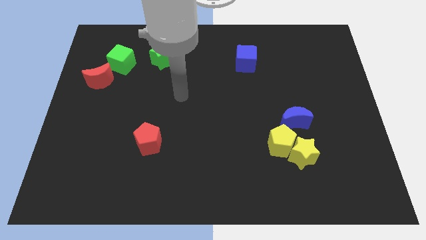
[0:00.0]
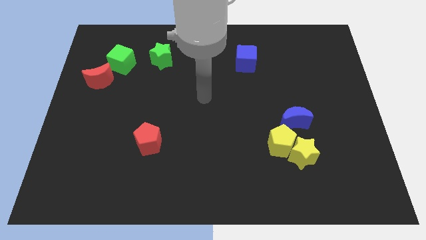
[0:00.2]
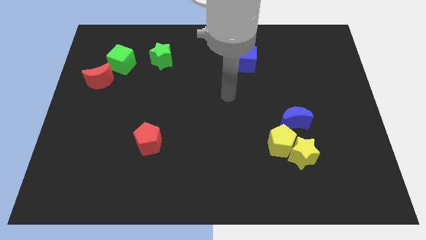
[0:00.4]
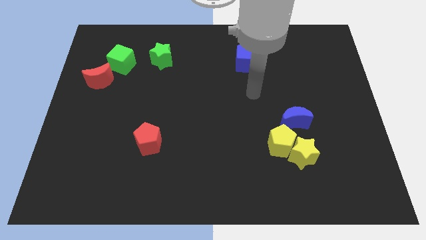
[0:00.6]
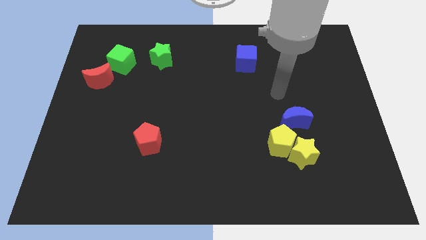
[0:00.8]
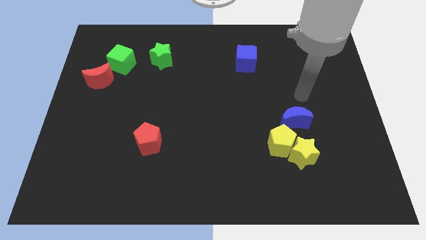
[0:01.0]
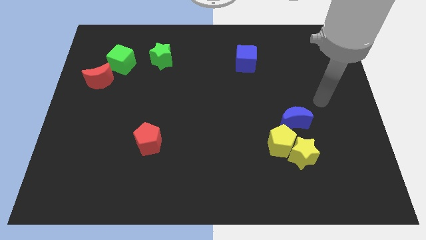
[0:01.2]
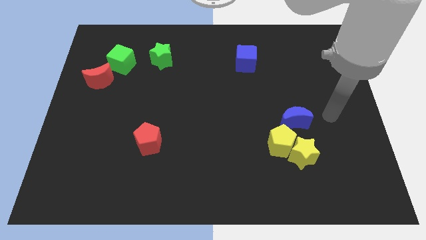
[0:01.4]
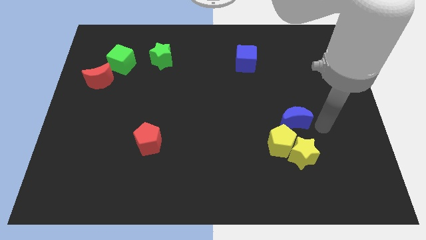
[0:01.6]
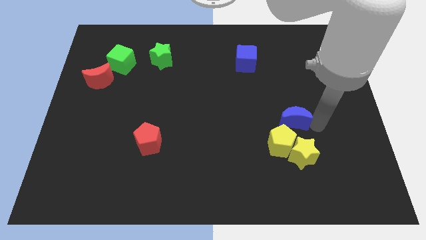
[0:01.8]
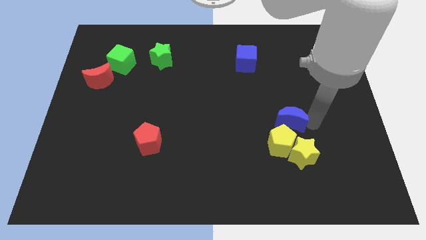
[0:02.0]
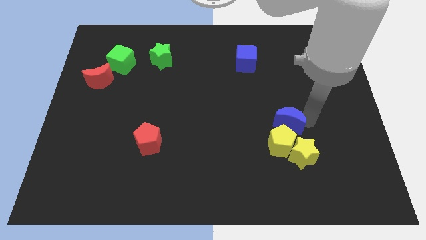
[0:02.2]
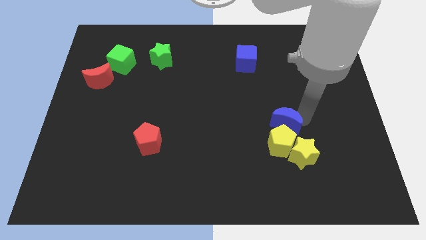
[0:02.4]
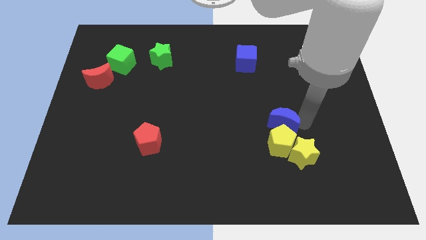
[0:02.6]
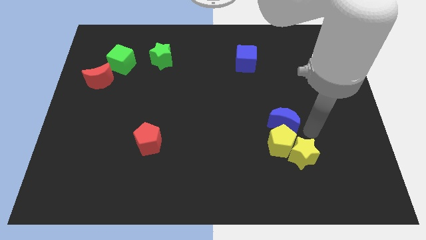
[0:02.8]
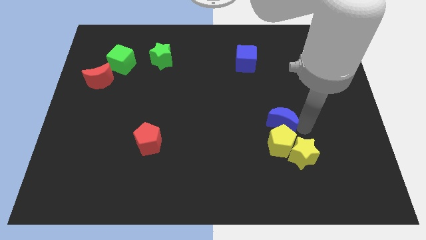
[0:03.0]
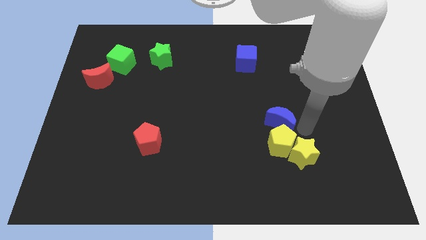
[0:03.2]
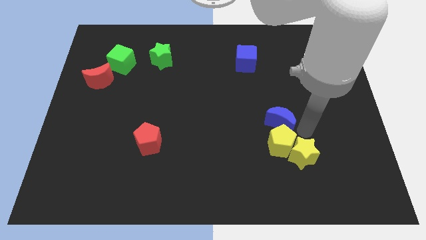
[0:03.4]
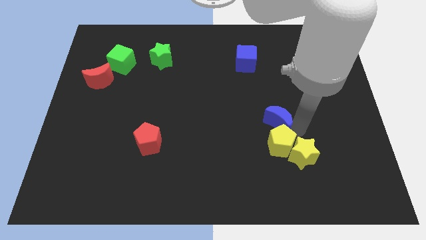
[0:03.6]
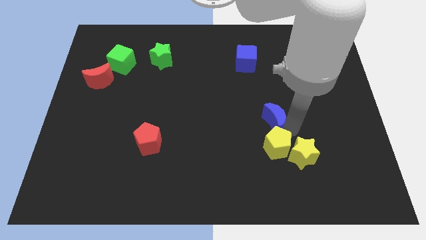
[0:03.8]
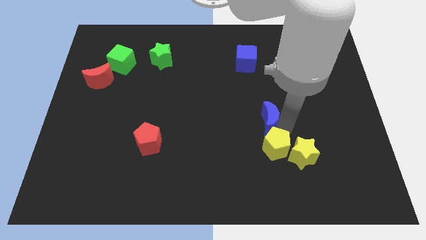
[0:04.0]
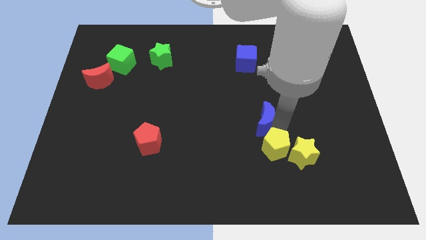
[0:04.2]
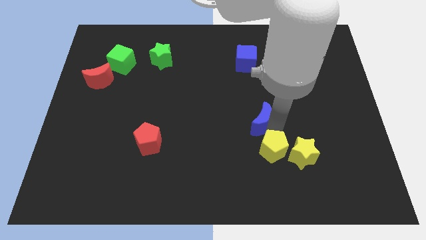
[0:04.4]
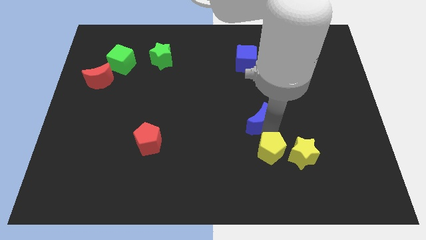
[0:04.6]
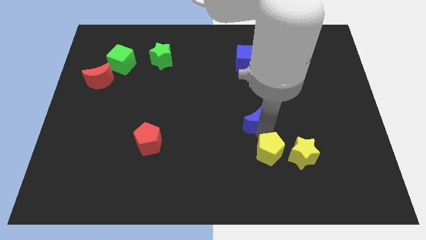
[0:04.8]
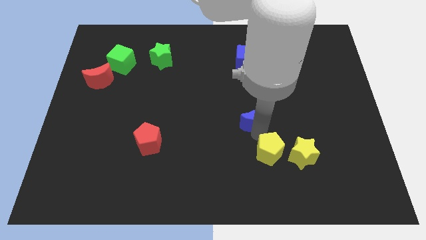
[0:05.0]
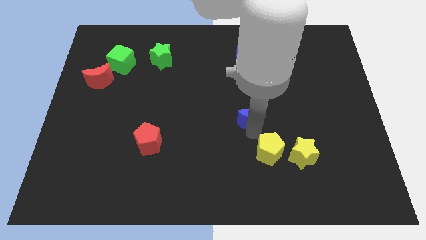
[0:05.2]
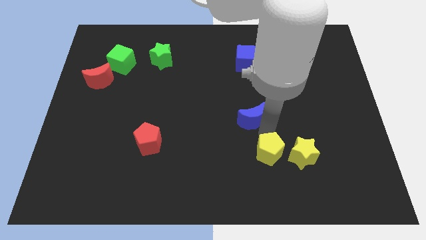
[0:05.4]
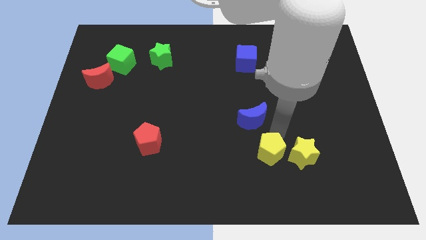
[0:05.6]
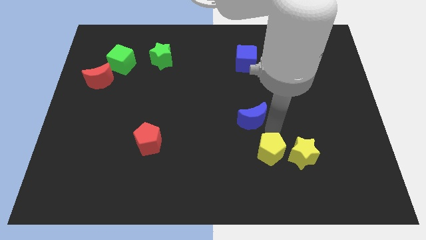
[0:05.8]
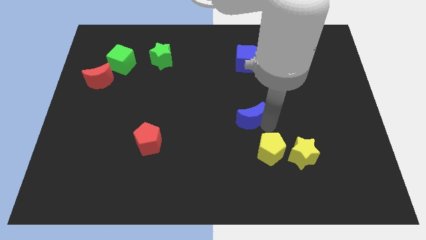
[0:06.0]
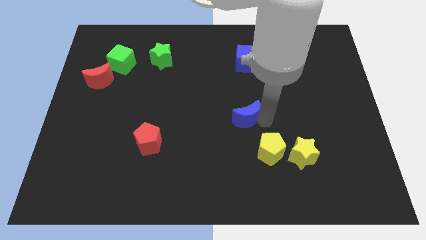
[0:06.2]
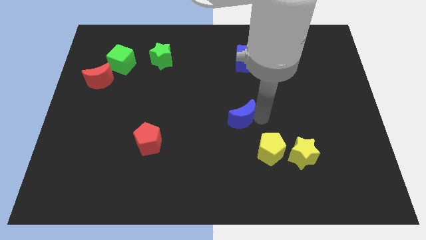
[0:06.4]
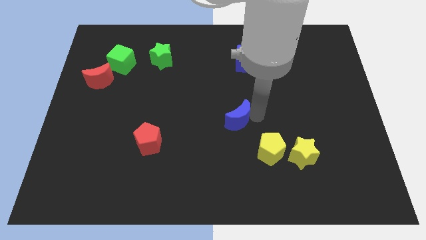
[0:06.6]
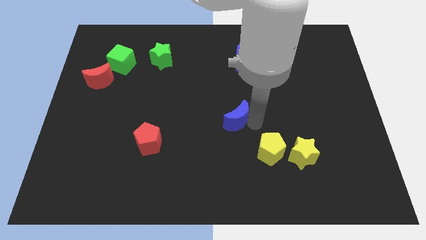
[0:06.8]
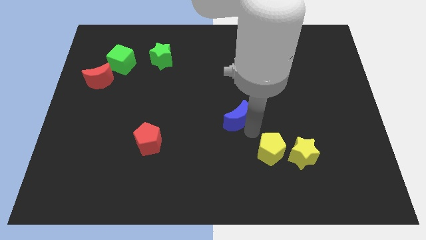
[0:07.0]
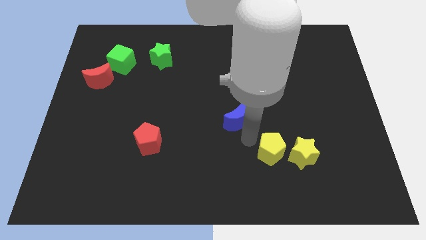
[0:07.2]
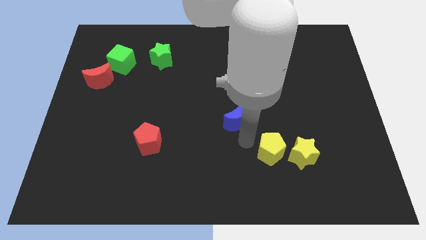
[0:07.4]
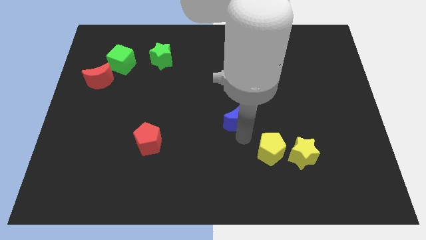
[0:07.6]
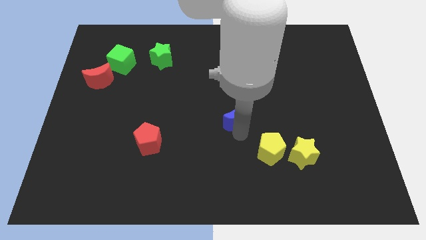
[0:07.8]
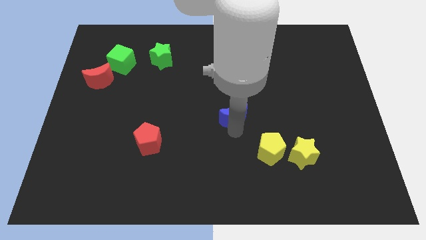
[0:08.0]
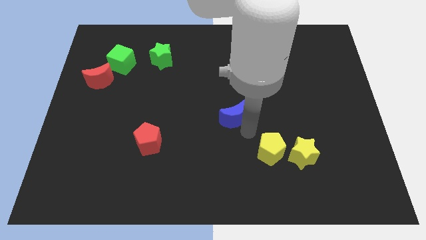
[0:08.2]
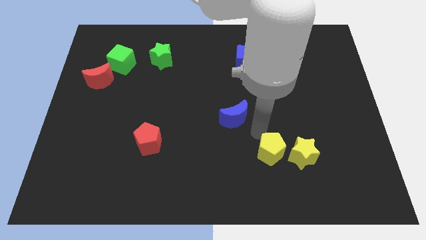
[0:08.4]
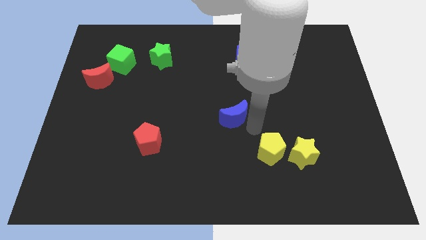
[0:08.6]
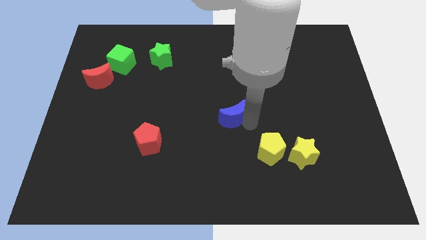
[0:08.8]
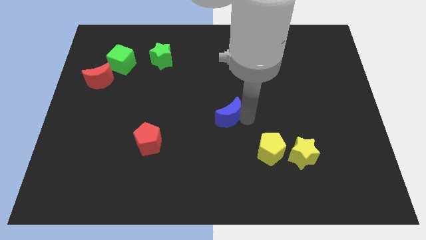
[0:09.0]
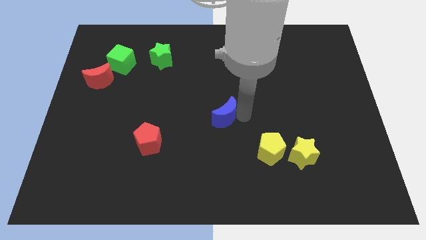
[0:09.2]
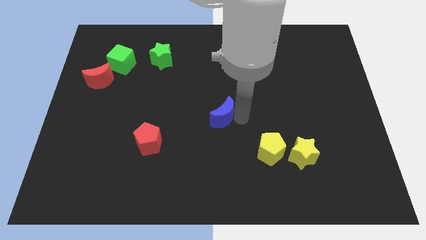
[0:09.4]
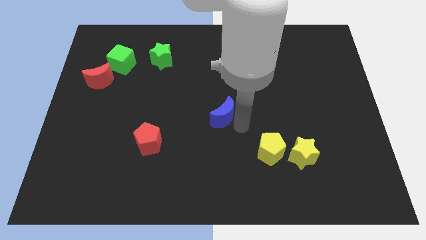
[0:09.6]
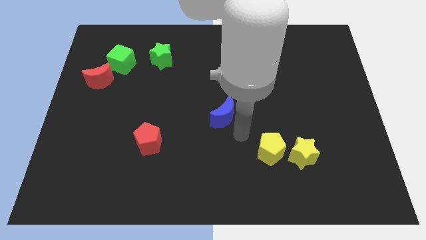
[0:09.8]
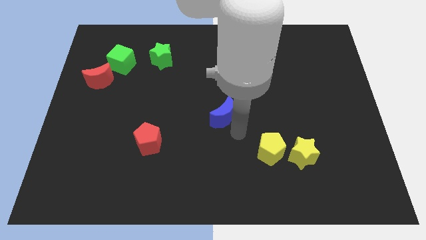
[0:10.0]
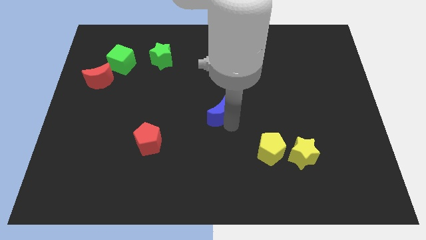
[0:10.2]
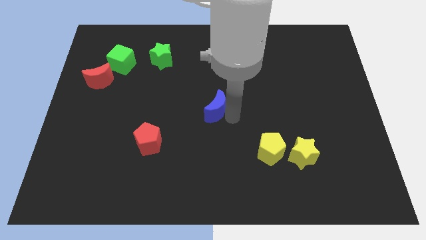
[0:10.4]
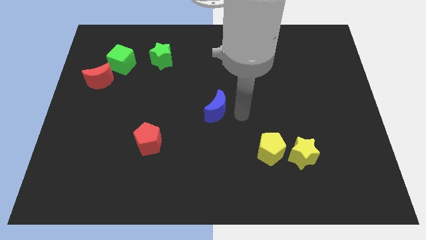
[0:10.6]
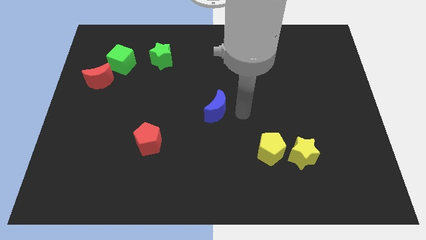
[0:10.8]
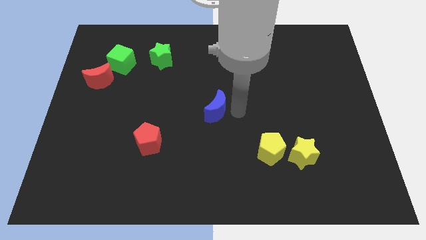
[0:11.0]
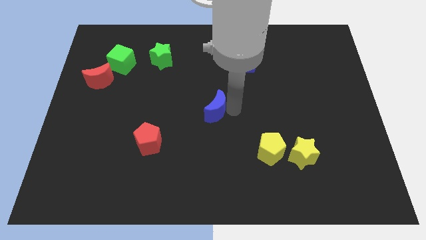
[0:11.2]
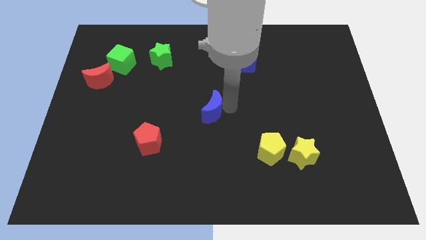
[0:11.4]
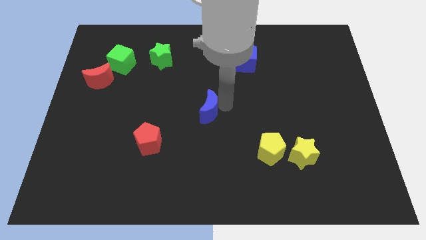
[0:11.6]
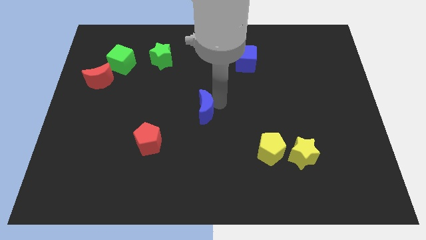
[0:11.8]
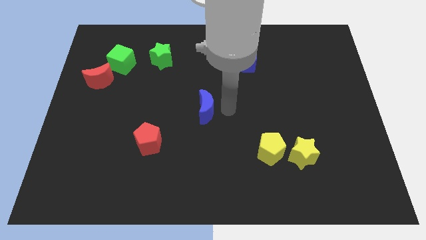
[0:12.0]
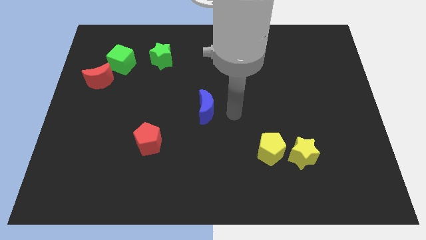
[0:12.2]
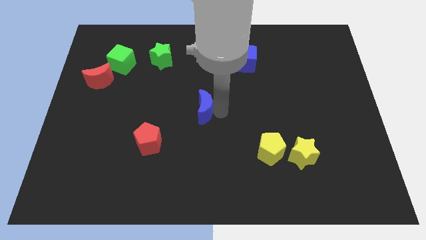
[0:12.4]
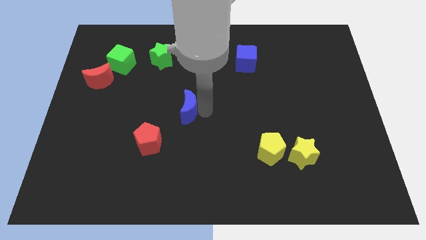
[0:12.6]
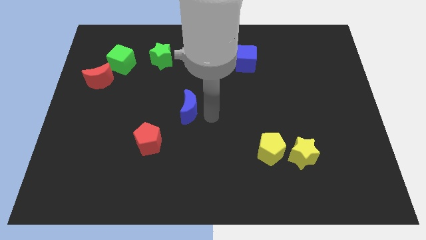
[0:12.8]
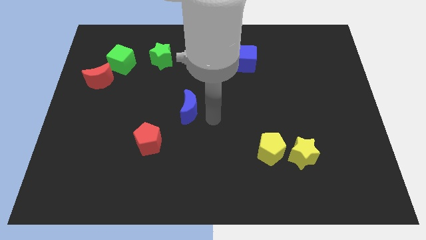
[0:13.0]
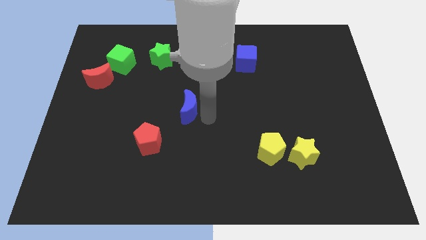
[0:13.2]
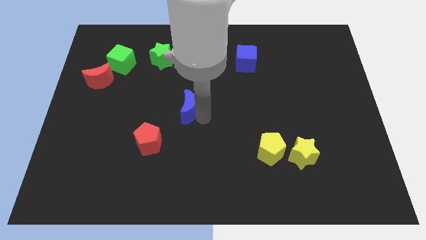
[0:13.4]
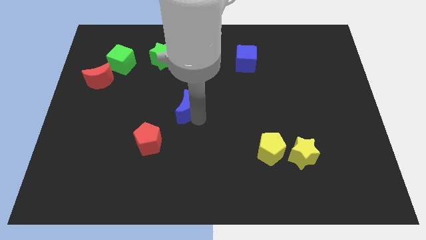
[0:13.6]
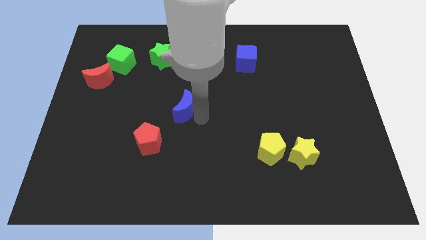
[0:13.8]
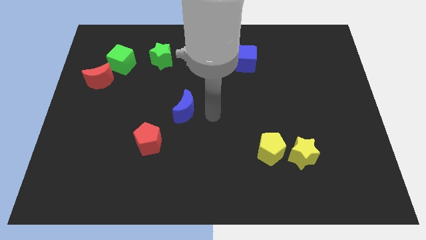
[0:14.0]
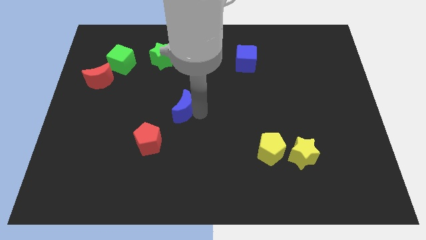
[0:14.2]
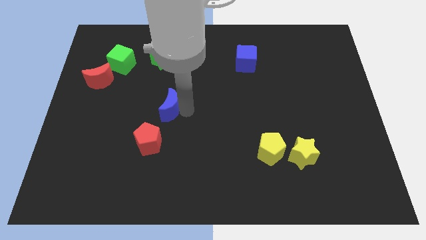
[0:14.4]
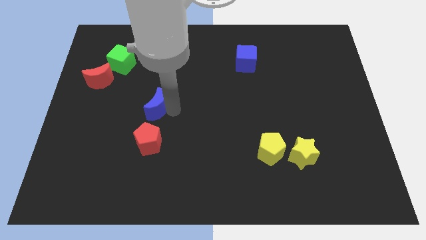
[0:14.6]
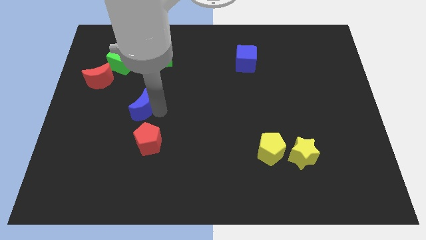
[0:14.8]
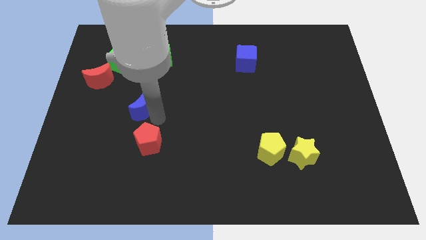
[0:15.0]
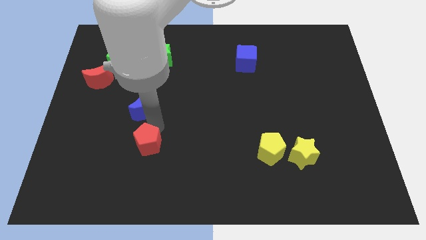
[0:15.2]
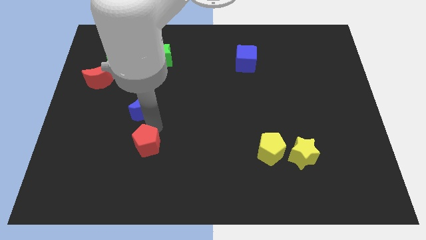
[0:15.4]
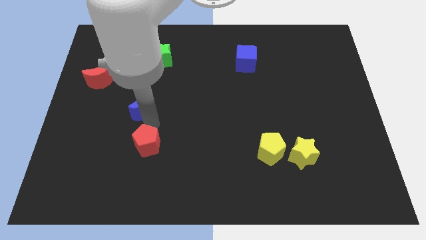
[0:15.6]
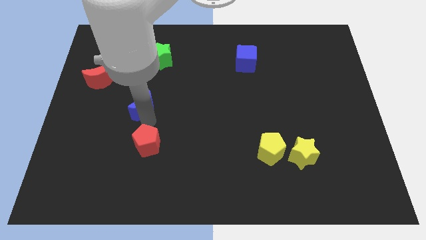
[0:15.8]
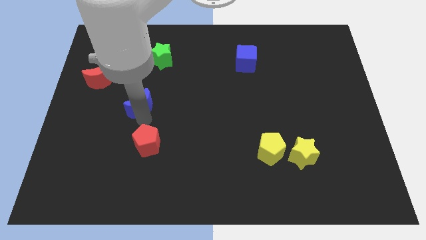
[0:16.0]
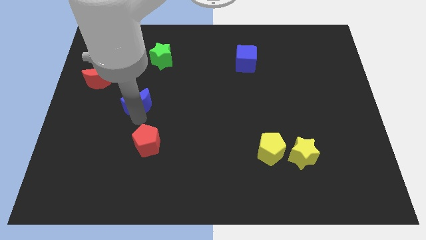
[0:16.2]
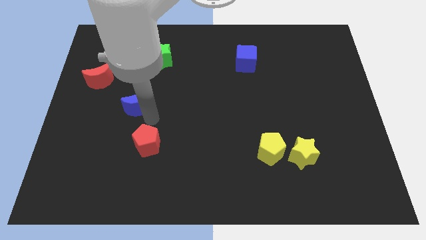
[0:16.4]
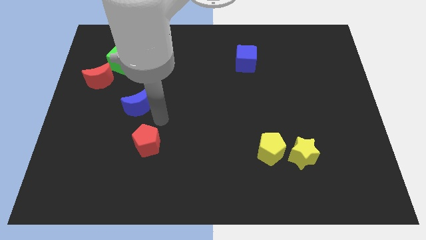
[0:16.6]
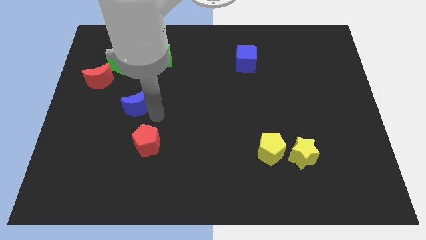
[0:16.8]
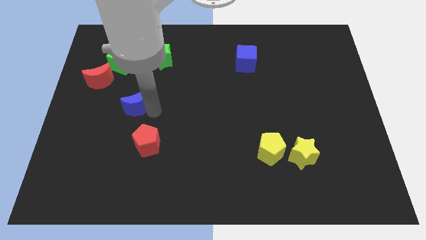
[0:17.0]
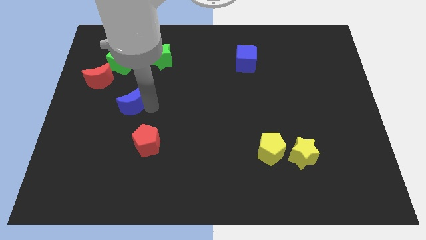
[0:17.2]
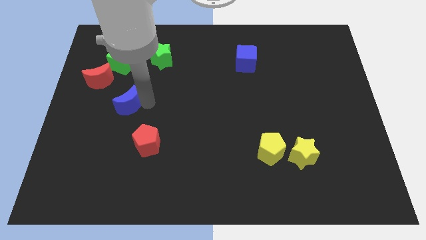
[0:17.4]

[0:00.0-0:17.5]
move the blue moon to the bottom of the green cube
